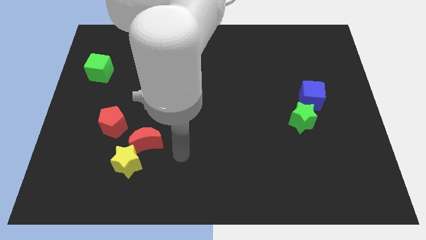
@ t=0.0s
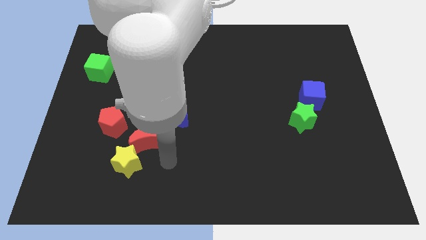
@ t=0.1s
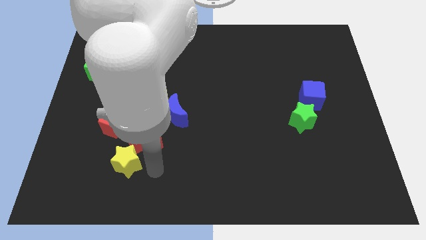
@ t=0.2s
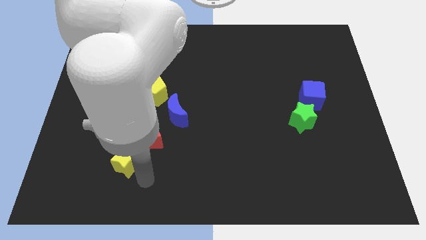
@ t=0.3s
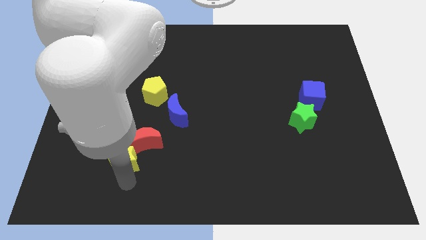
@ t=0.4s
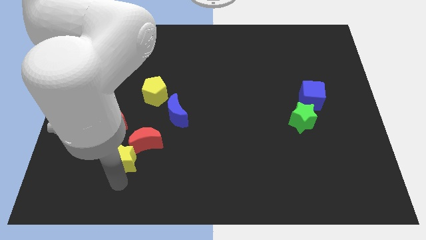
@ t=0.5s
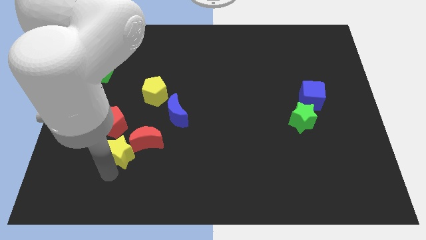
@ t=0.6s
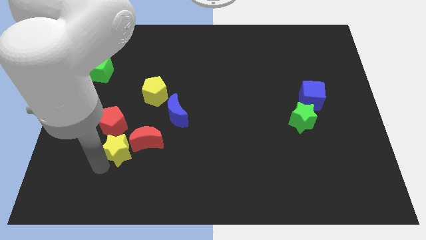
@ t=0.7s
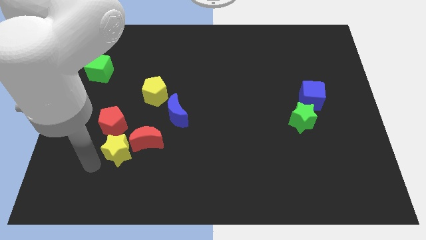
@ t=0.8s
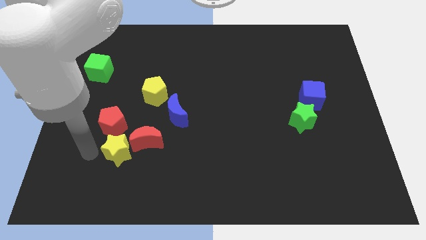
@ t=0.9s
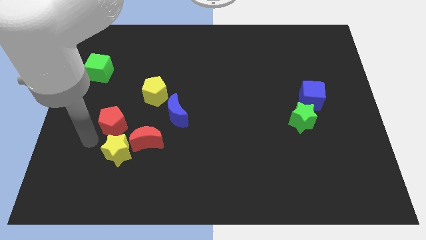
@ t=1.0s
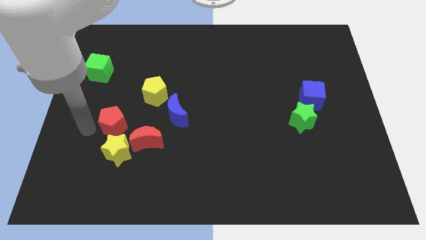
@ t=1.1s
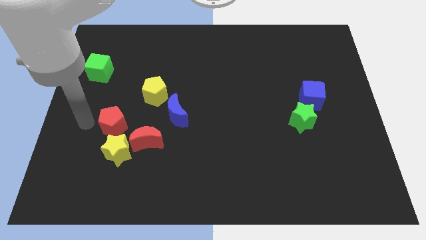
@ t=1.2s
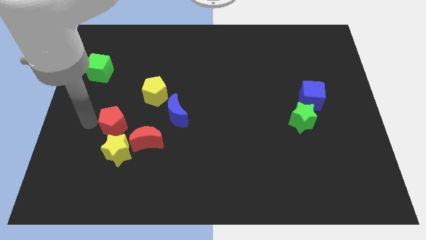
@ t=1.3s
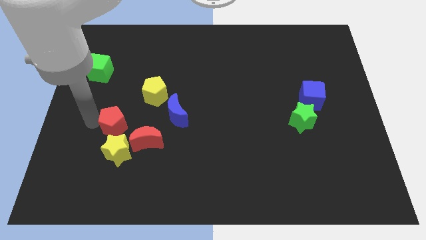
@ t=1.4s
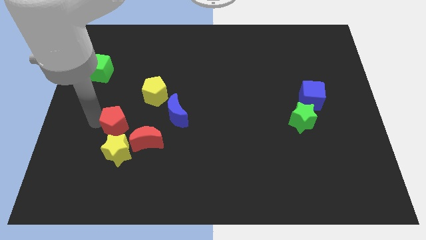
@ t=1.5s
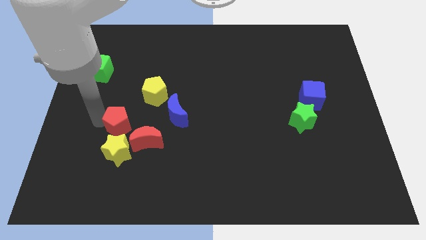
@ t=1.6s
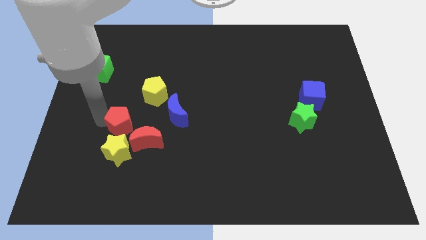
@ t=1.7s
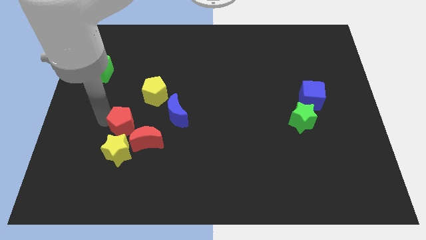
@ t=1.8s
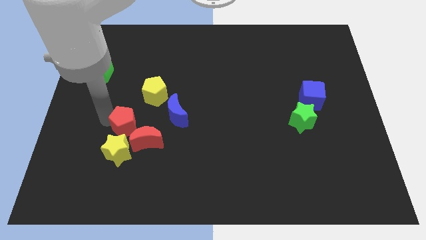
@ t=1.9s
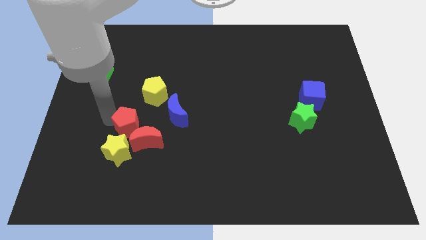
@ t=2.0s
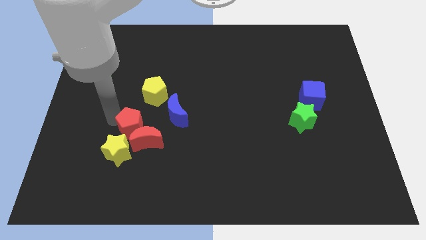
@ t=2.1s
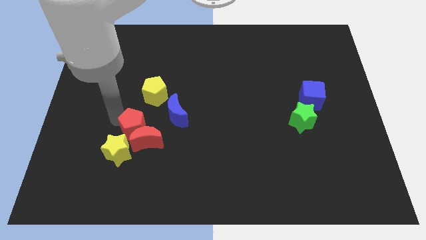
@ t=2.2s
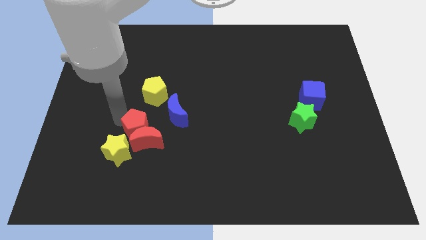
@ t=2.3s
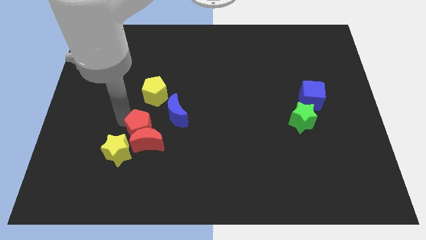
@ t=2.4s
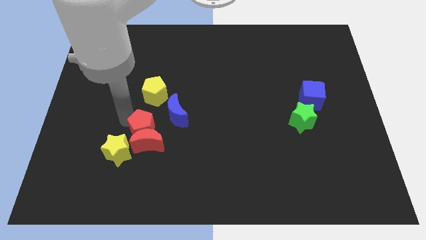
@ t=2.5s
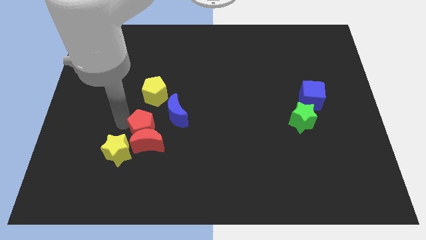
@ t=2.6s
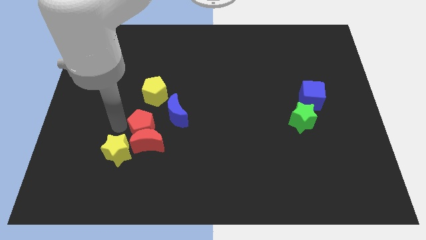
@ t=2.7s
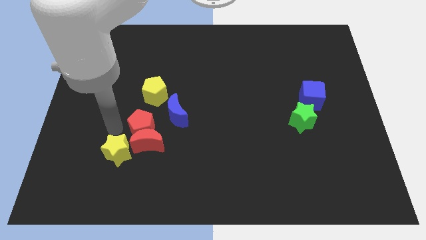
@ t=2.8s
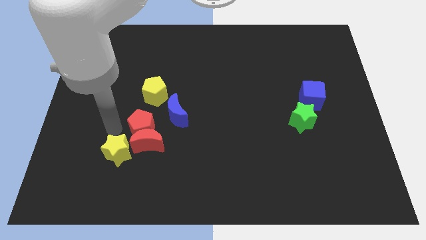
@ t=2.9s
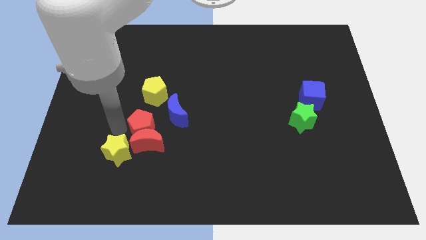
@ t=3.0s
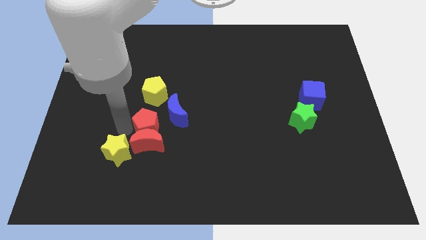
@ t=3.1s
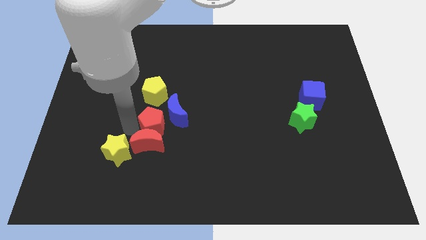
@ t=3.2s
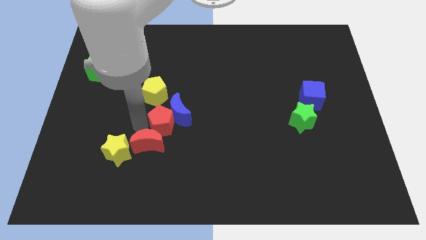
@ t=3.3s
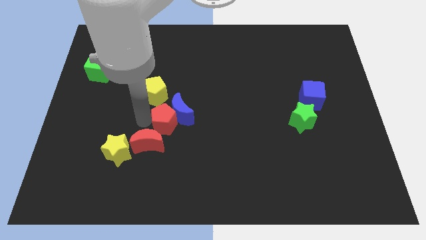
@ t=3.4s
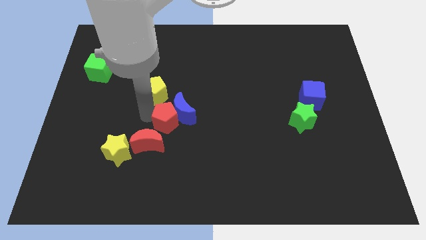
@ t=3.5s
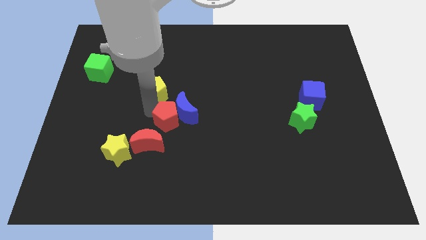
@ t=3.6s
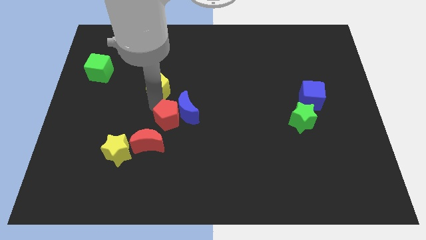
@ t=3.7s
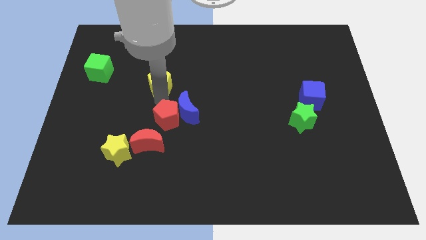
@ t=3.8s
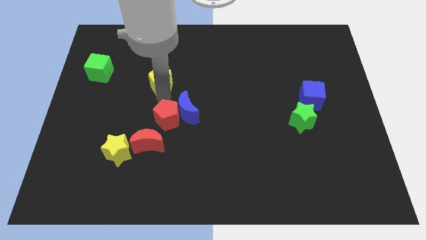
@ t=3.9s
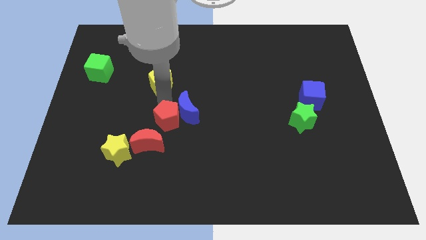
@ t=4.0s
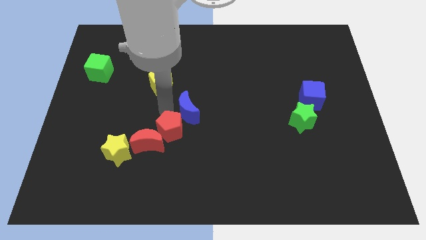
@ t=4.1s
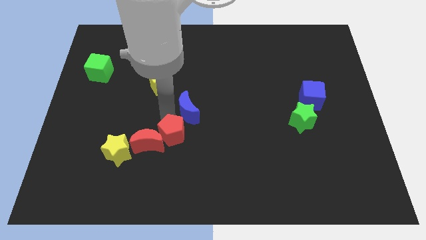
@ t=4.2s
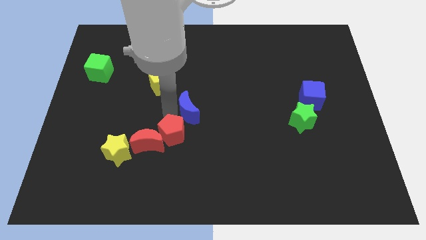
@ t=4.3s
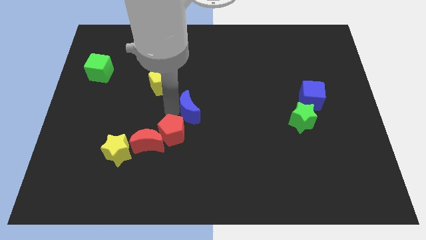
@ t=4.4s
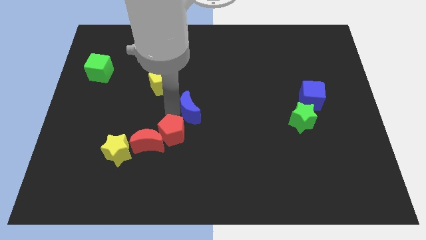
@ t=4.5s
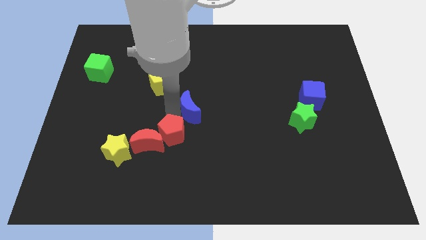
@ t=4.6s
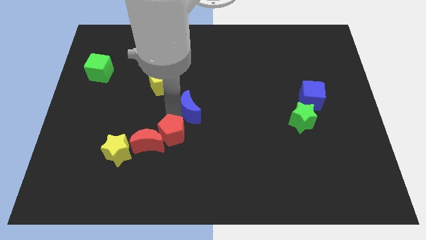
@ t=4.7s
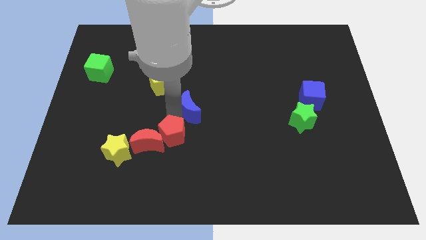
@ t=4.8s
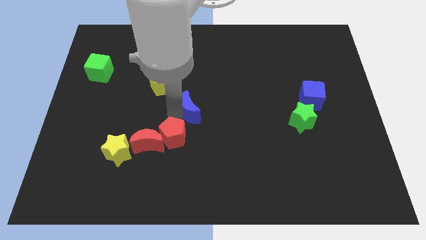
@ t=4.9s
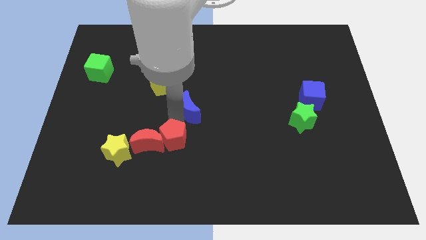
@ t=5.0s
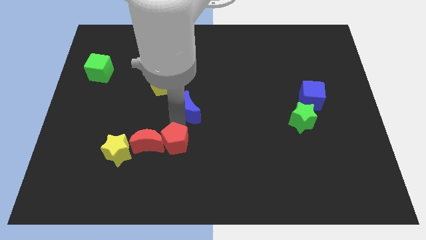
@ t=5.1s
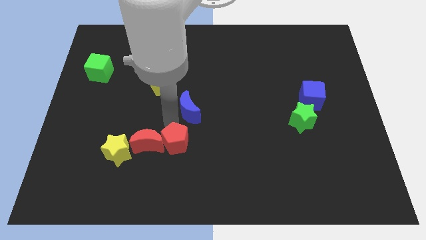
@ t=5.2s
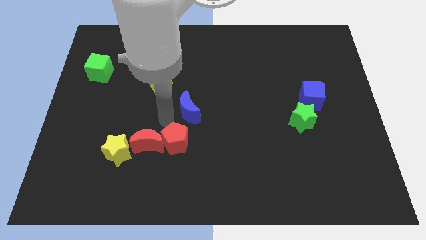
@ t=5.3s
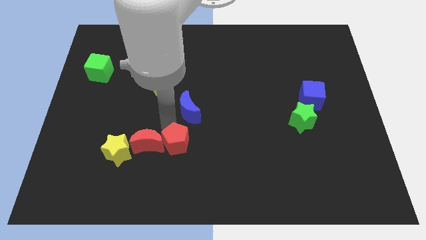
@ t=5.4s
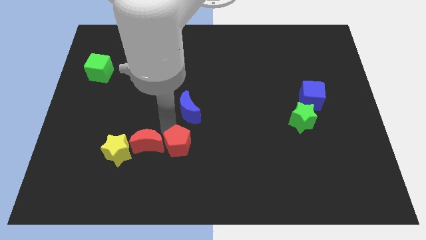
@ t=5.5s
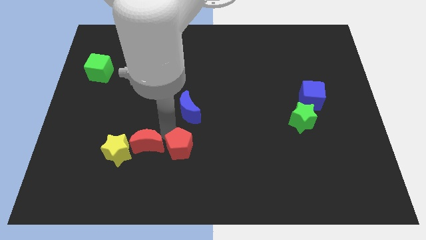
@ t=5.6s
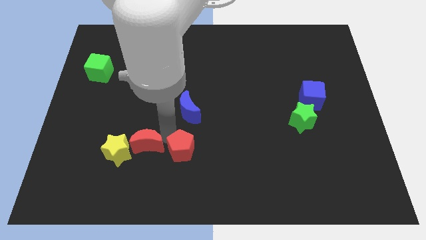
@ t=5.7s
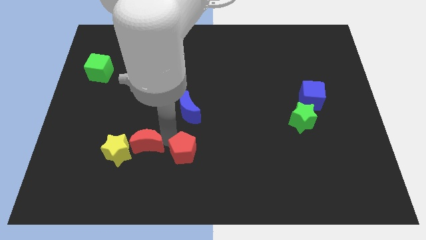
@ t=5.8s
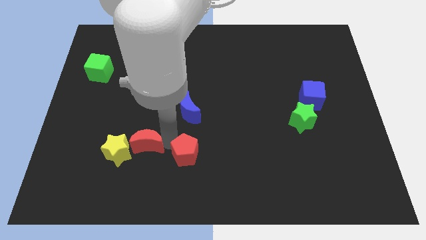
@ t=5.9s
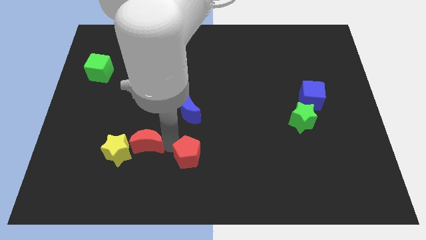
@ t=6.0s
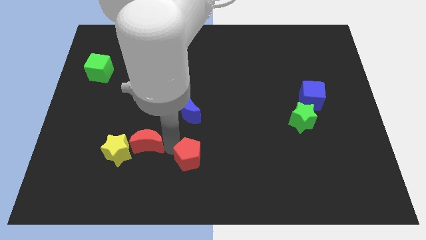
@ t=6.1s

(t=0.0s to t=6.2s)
slide the red pentagon to the bottom
